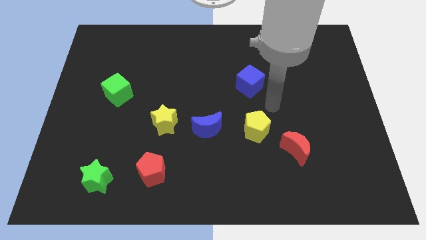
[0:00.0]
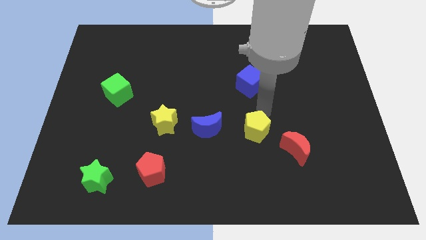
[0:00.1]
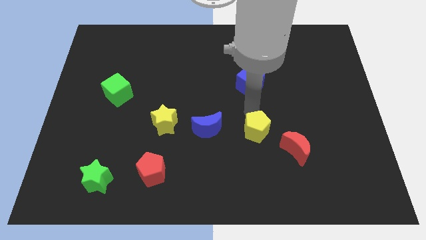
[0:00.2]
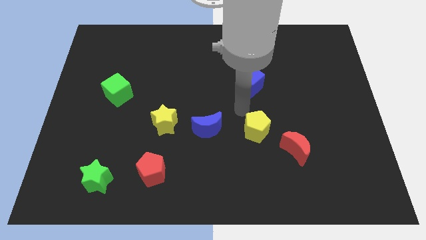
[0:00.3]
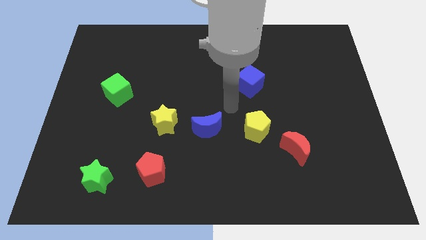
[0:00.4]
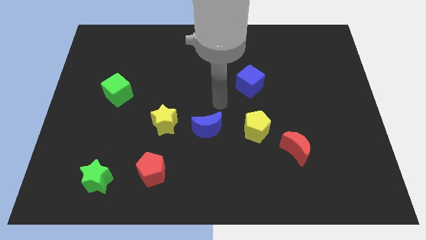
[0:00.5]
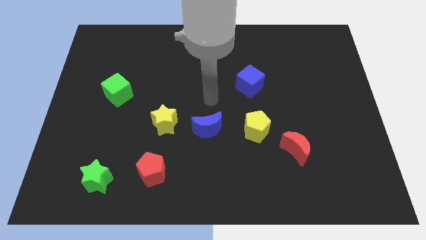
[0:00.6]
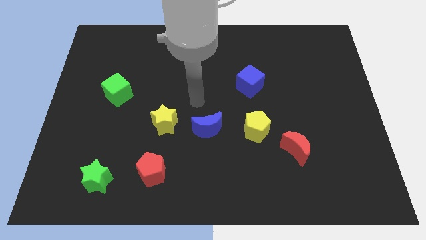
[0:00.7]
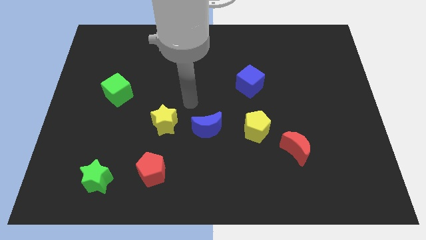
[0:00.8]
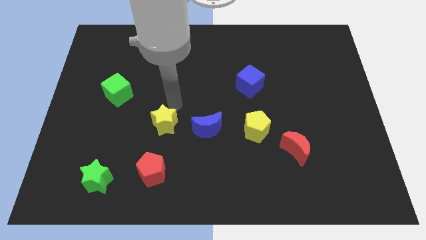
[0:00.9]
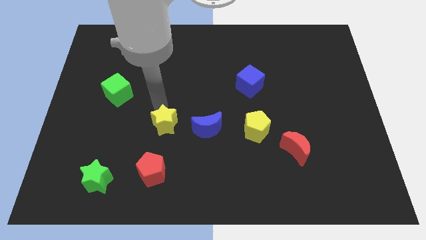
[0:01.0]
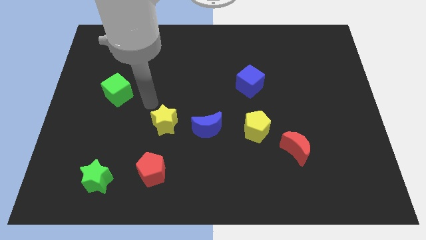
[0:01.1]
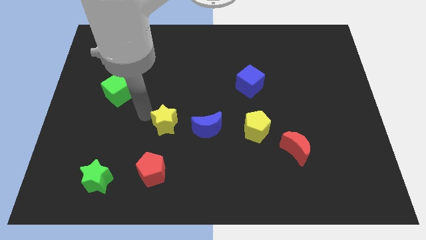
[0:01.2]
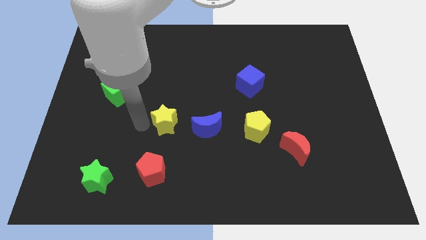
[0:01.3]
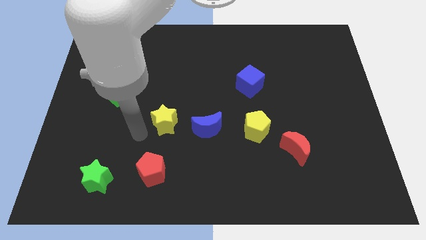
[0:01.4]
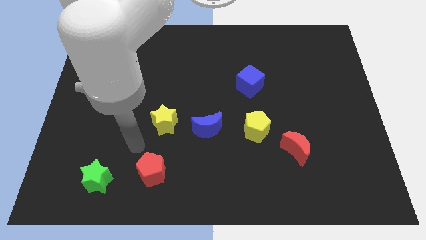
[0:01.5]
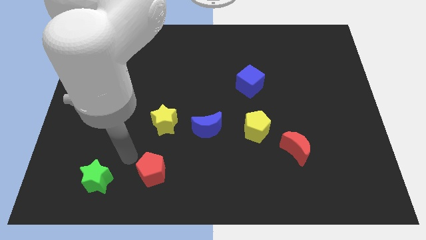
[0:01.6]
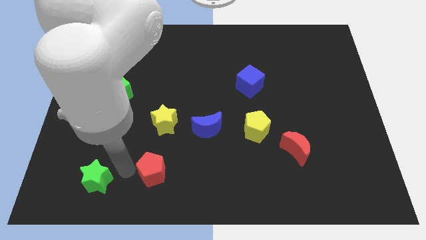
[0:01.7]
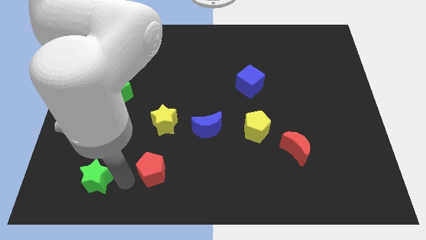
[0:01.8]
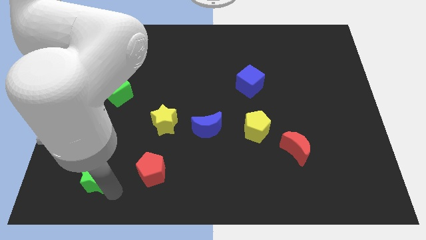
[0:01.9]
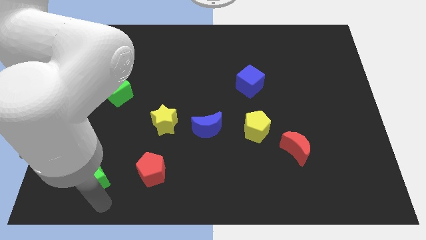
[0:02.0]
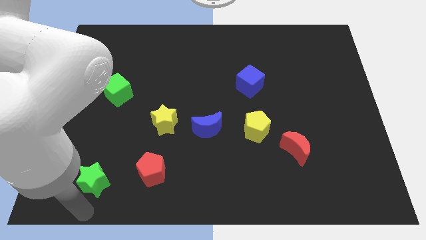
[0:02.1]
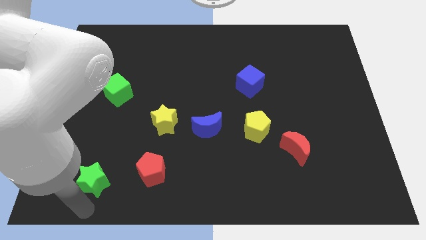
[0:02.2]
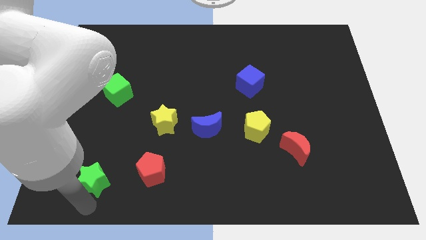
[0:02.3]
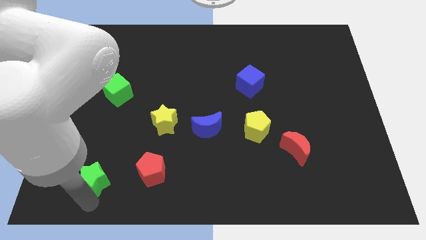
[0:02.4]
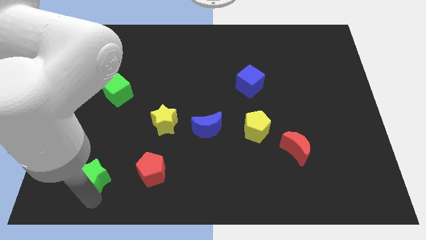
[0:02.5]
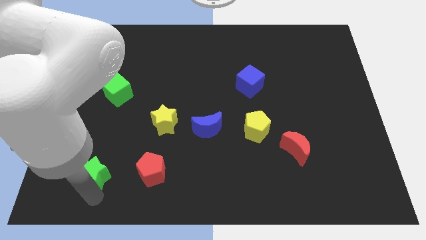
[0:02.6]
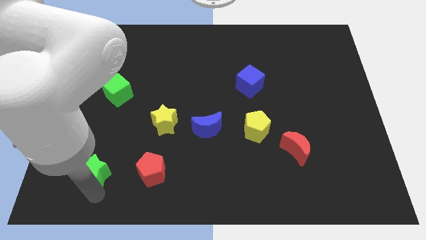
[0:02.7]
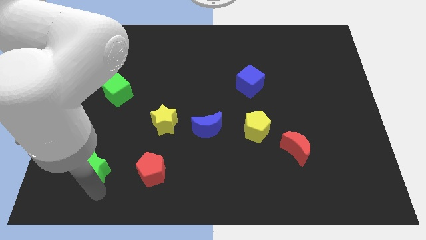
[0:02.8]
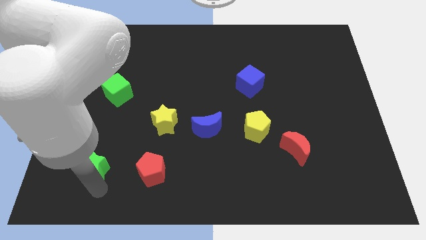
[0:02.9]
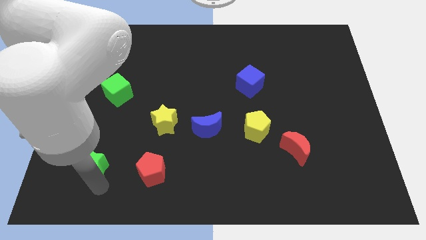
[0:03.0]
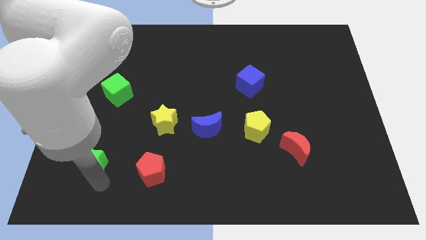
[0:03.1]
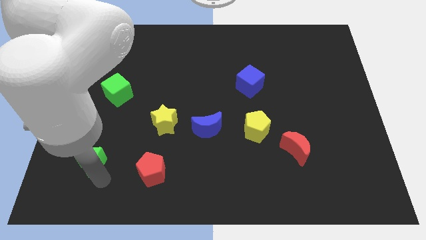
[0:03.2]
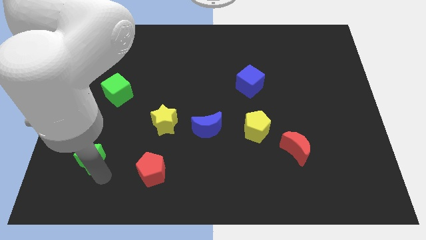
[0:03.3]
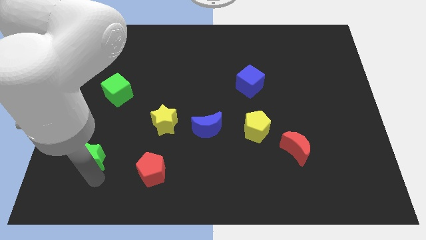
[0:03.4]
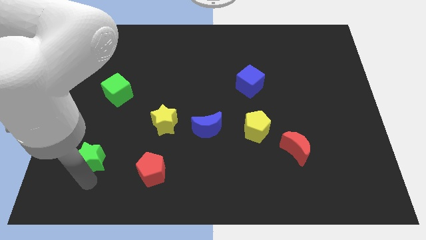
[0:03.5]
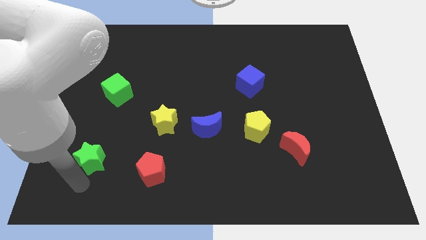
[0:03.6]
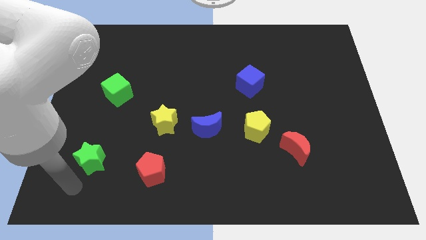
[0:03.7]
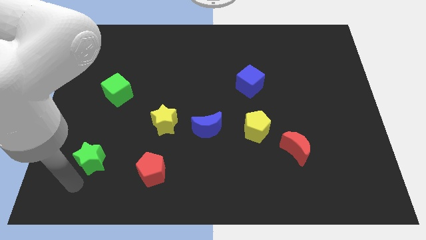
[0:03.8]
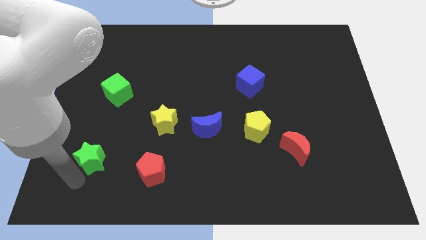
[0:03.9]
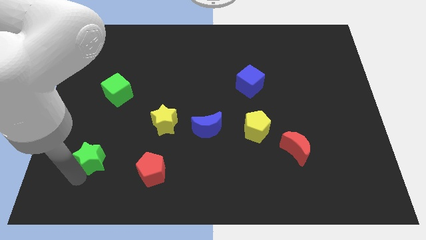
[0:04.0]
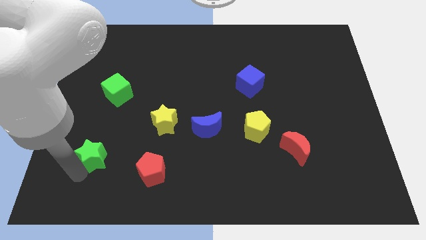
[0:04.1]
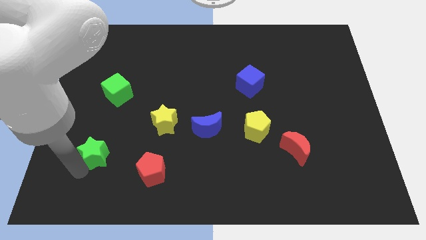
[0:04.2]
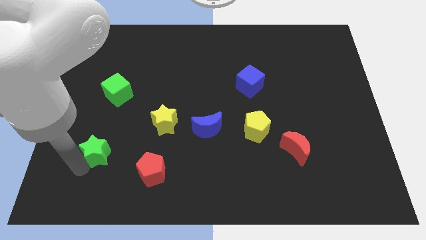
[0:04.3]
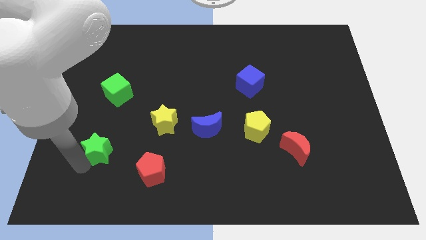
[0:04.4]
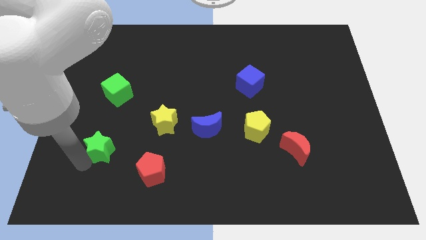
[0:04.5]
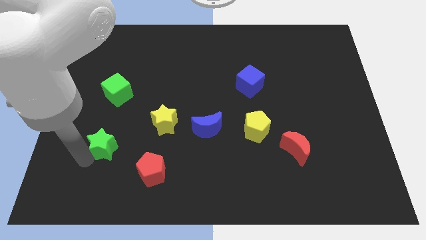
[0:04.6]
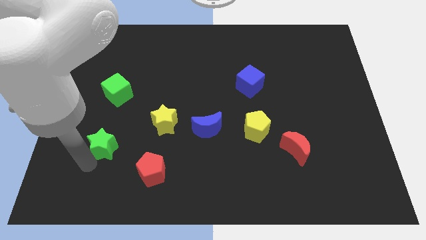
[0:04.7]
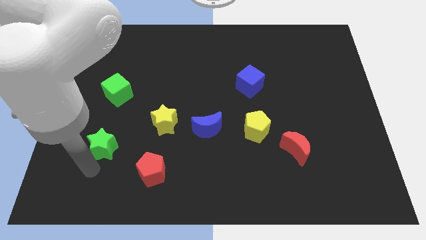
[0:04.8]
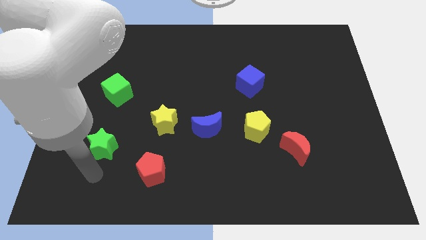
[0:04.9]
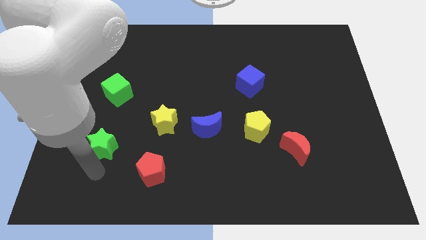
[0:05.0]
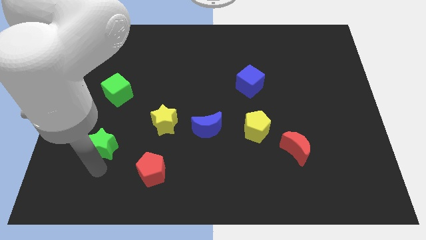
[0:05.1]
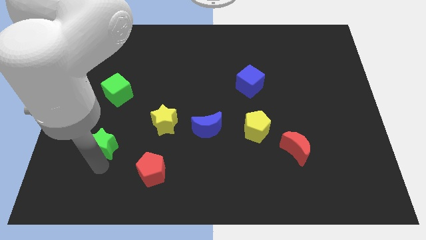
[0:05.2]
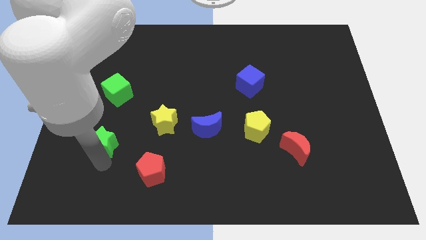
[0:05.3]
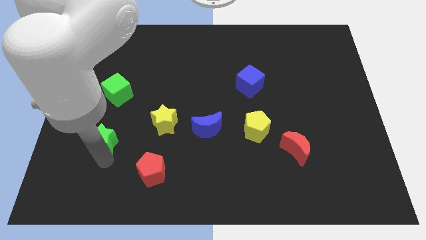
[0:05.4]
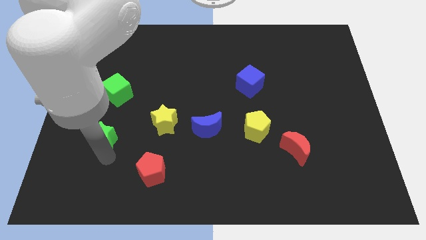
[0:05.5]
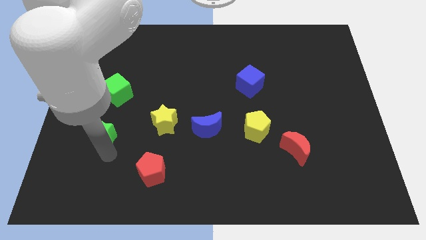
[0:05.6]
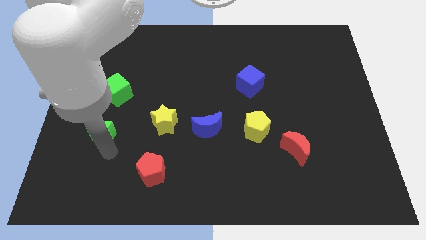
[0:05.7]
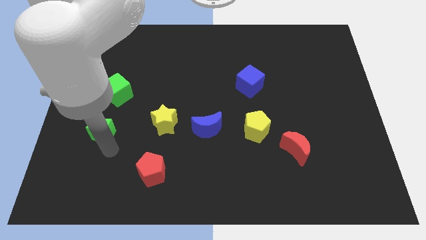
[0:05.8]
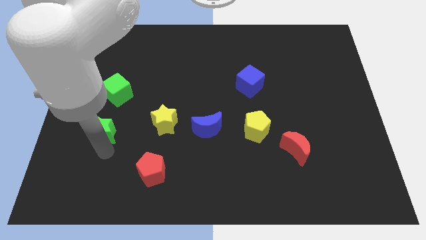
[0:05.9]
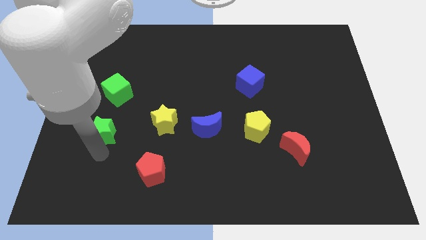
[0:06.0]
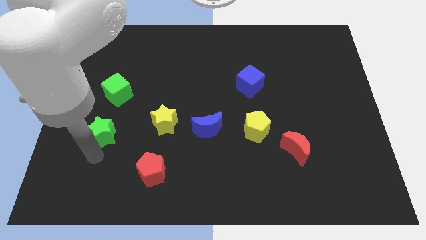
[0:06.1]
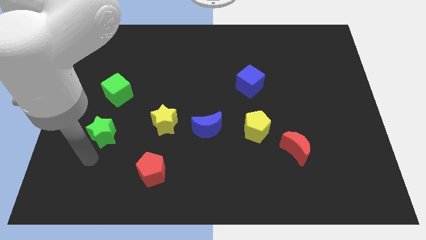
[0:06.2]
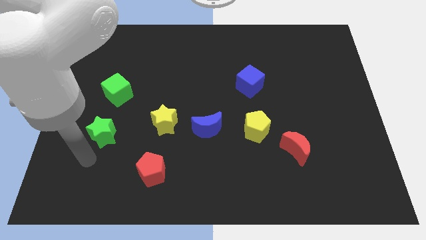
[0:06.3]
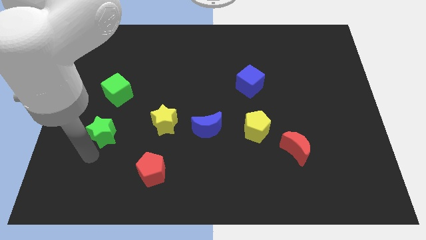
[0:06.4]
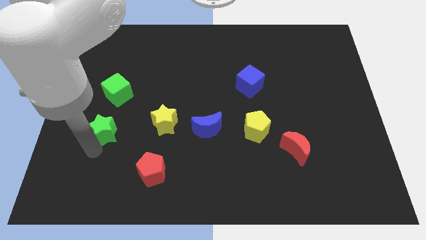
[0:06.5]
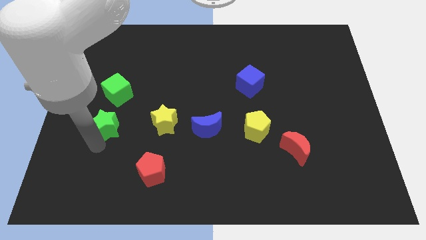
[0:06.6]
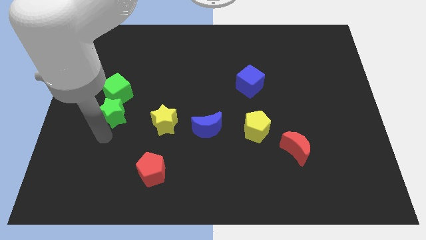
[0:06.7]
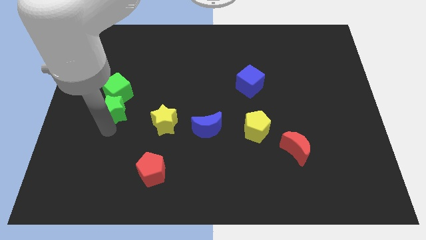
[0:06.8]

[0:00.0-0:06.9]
slide the green star next to the green cube
